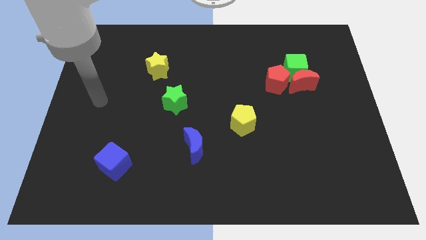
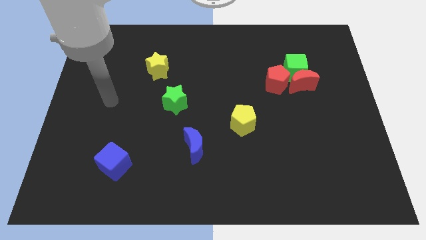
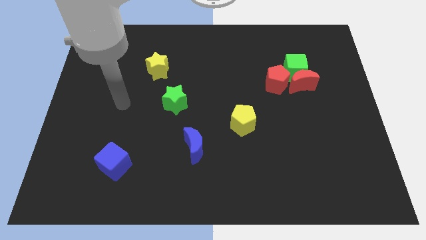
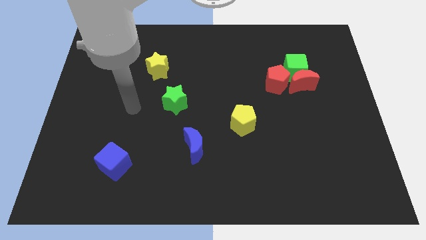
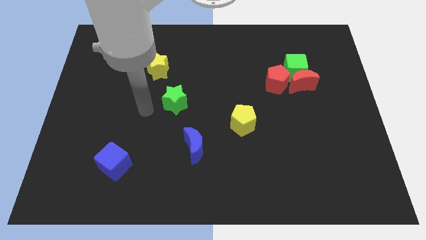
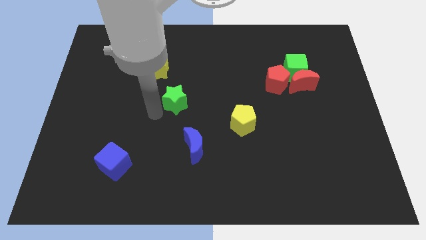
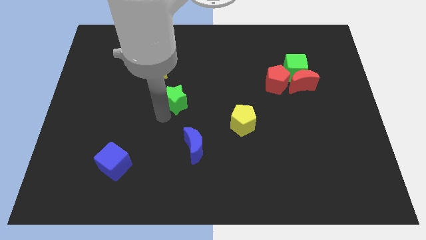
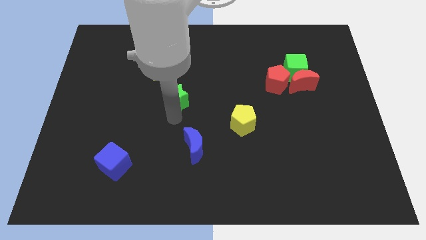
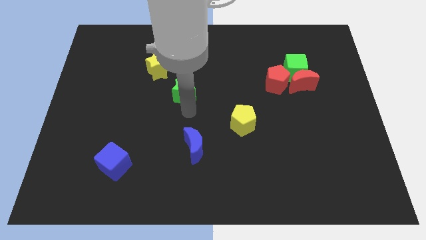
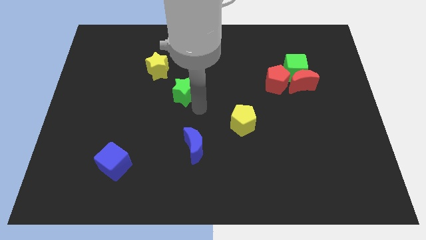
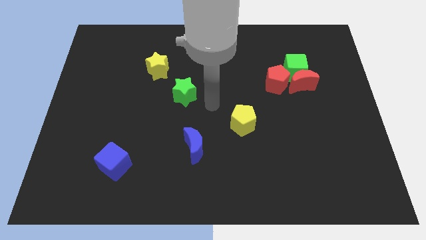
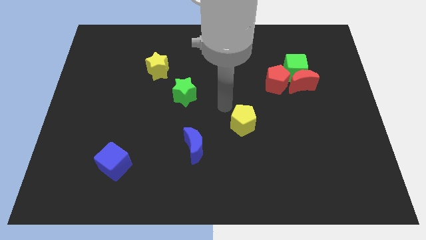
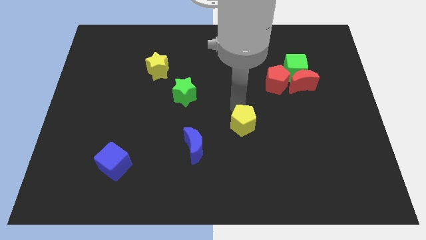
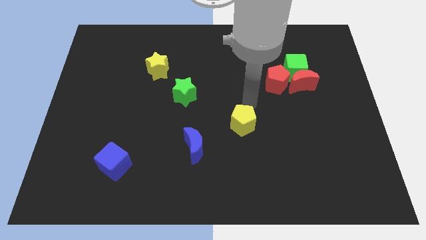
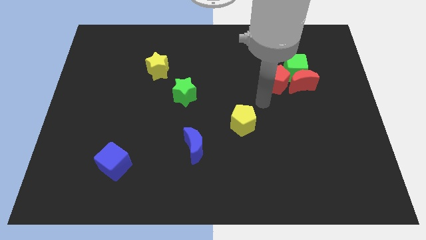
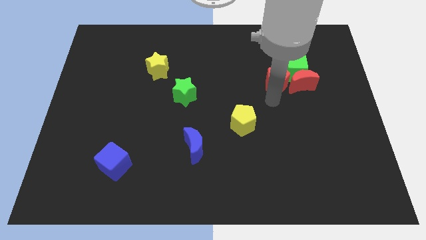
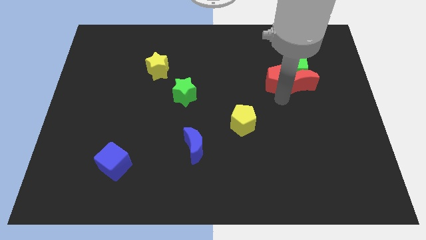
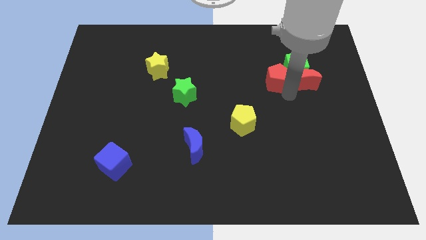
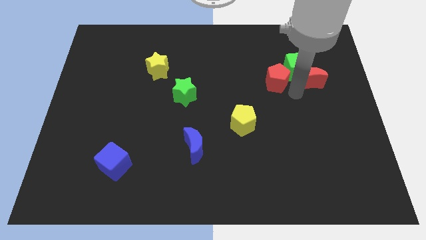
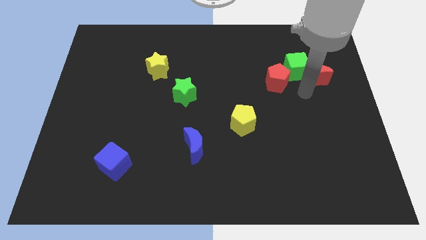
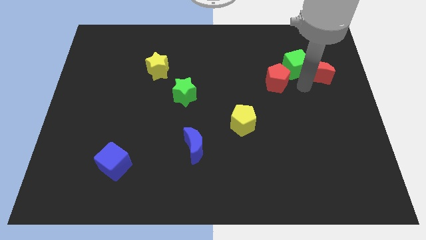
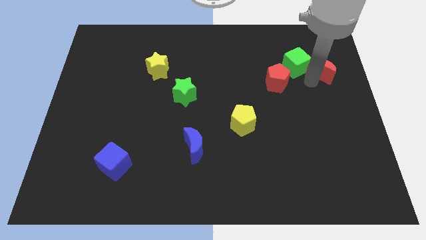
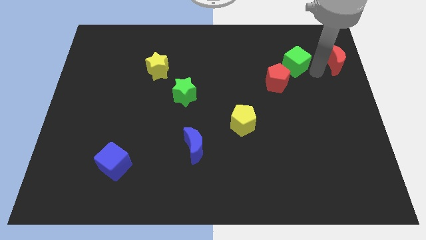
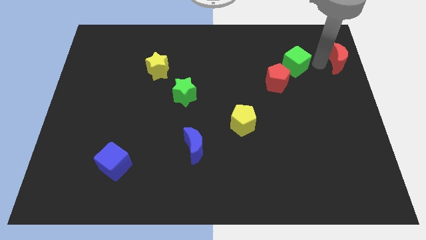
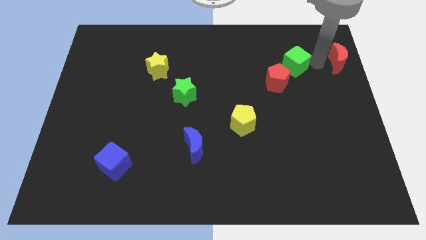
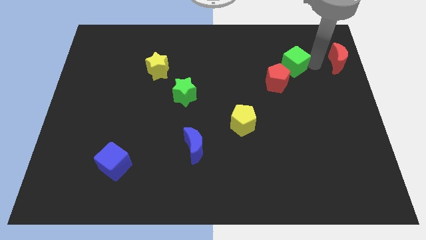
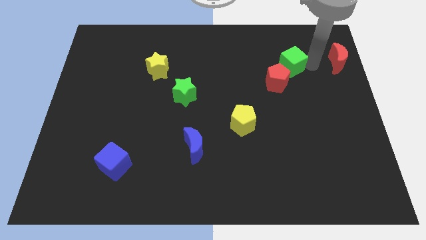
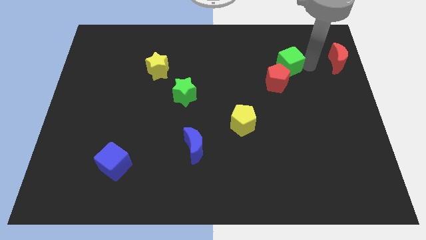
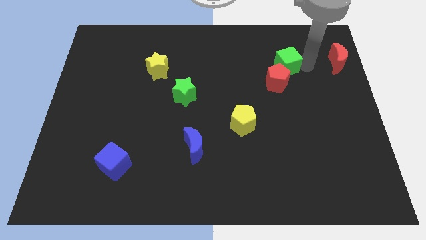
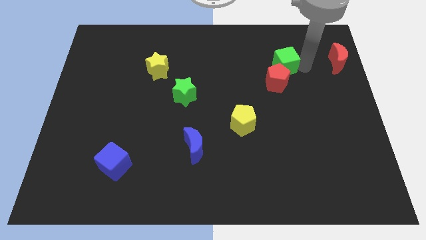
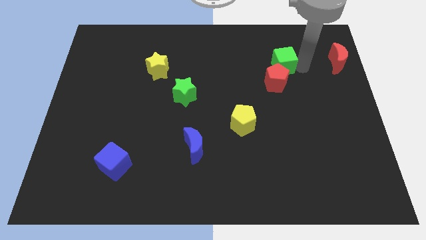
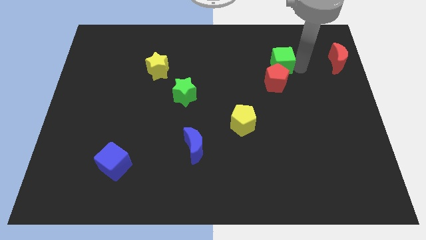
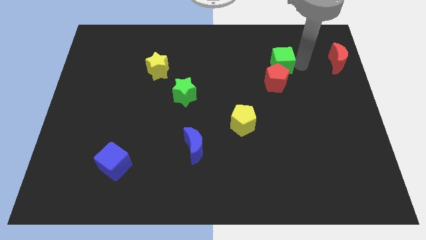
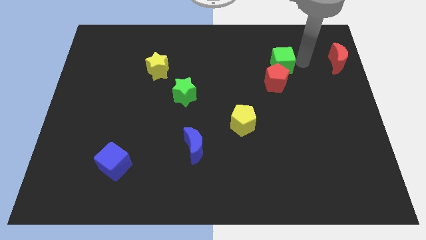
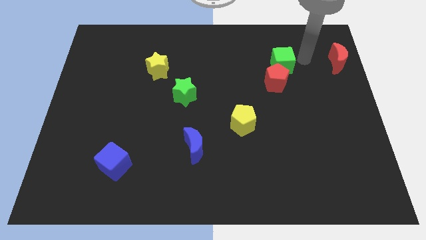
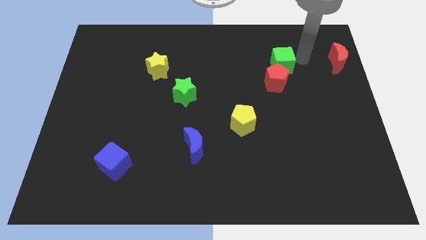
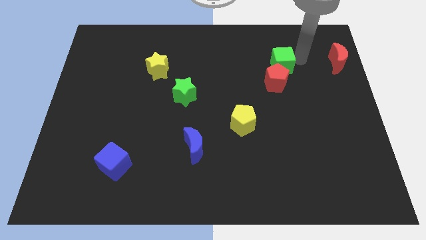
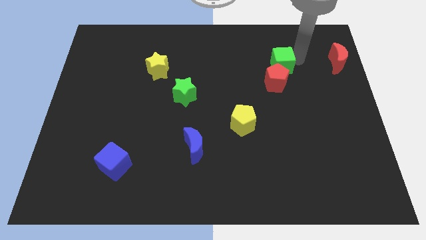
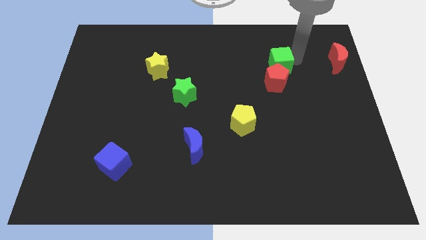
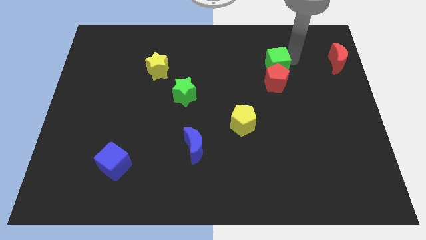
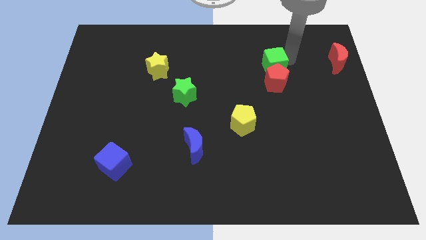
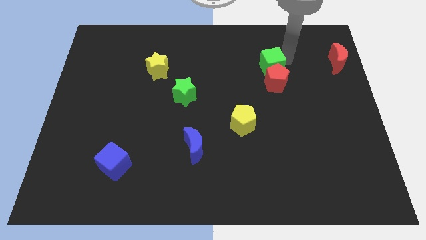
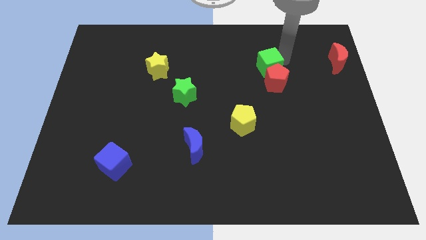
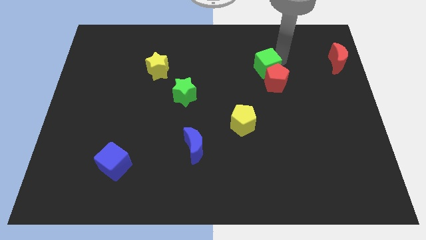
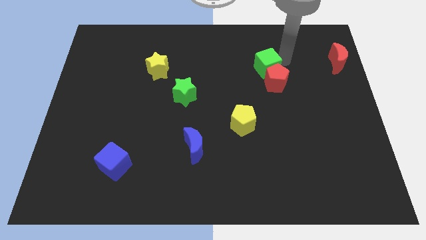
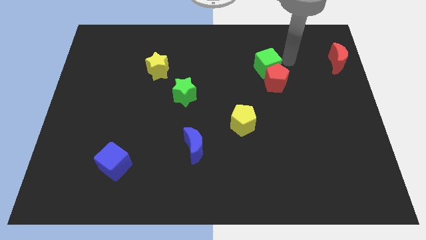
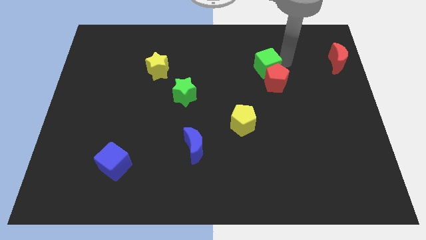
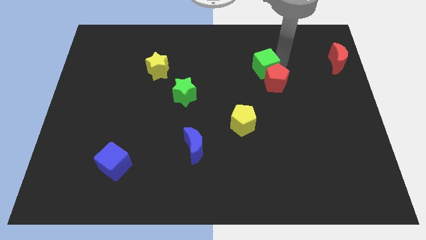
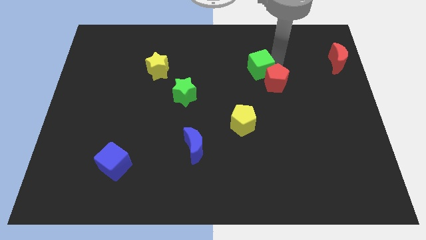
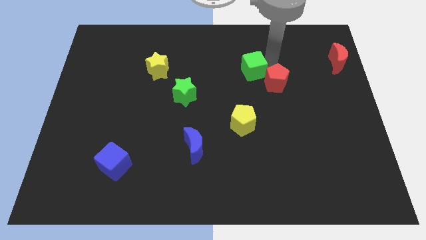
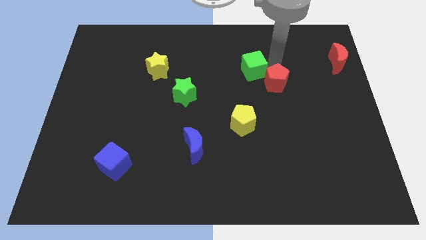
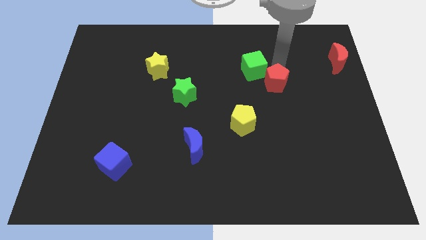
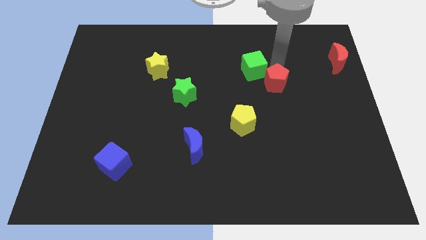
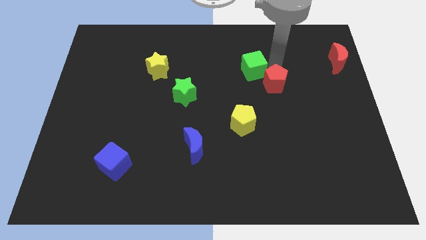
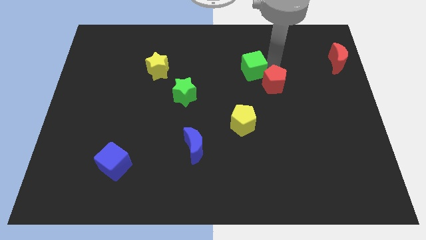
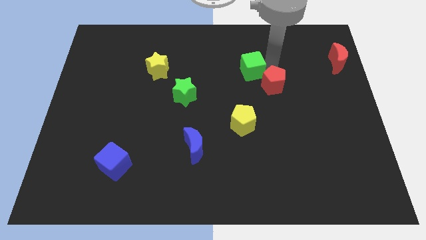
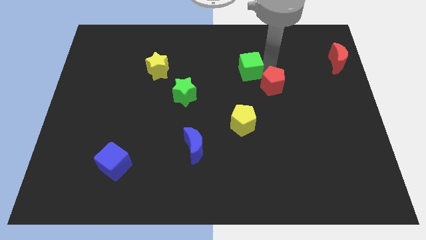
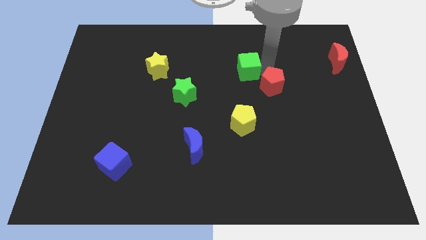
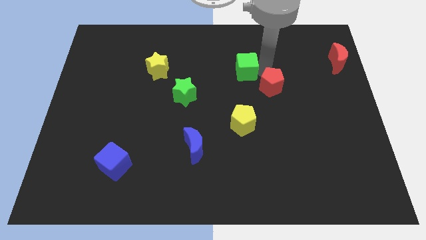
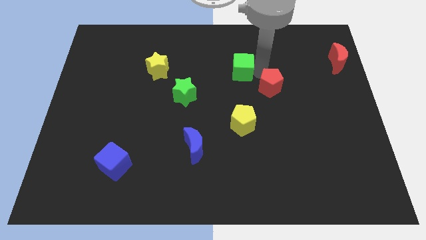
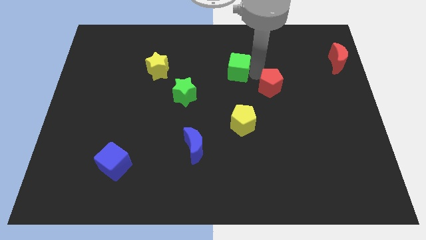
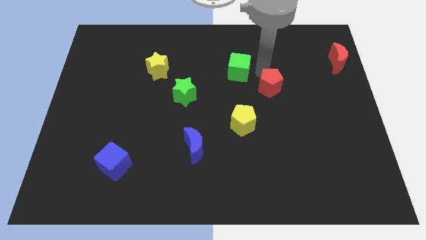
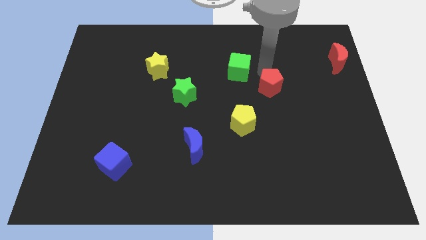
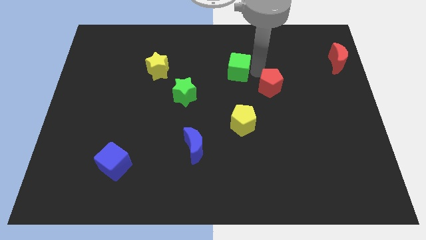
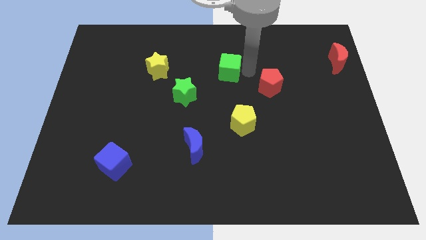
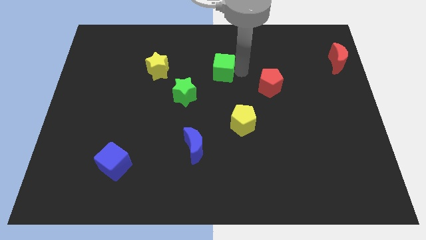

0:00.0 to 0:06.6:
slide the green cube to the right side of the yellow star

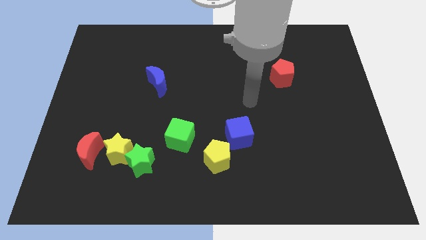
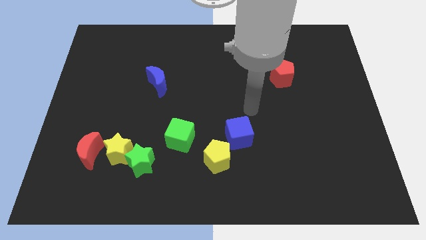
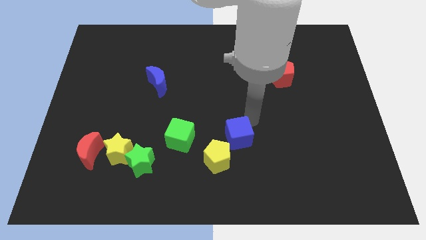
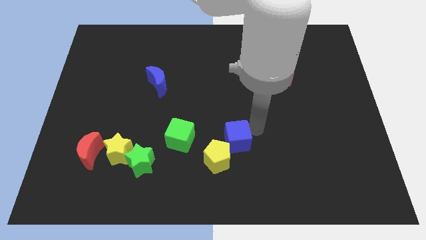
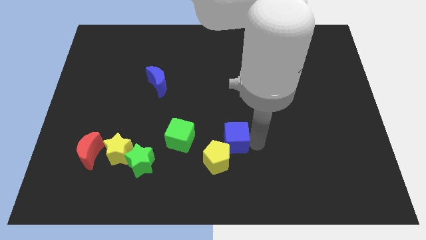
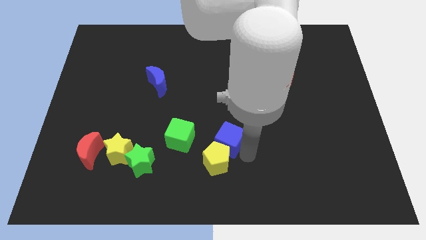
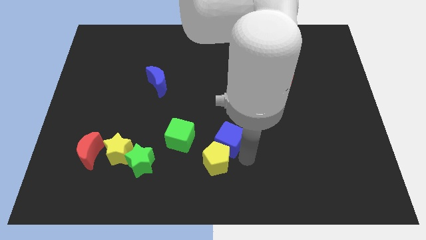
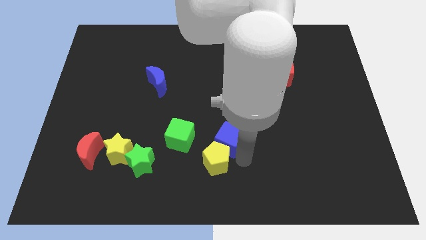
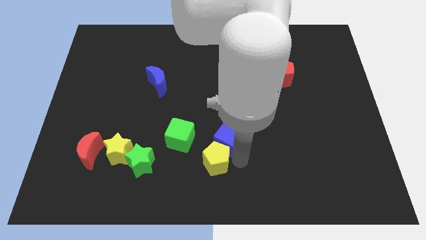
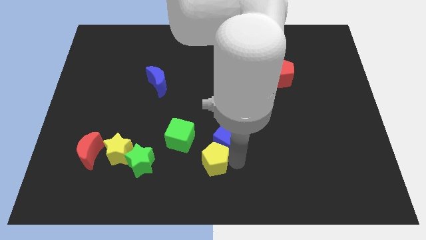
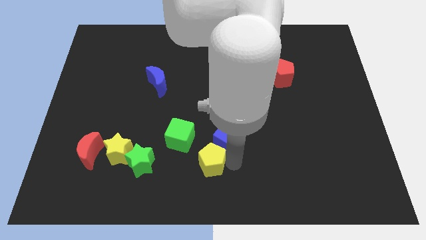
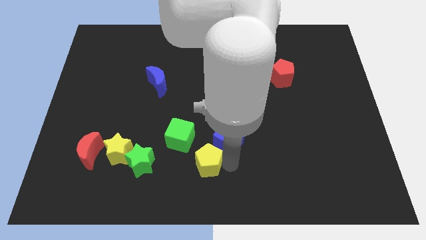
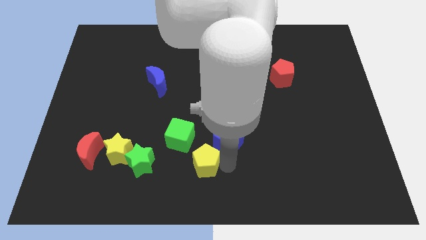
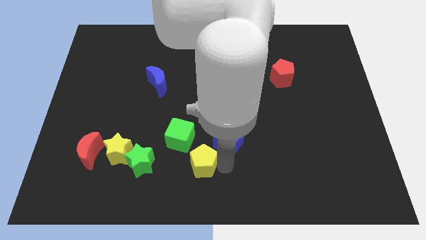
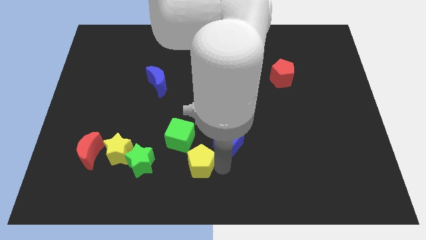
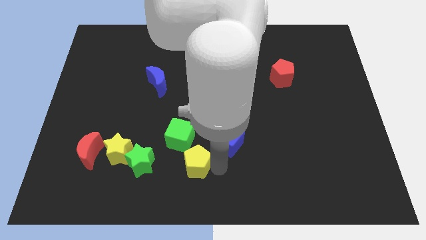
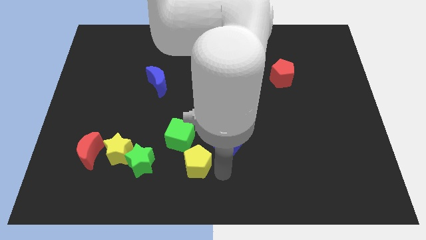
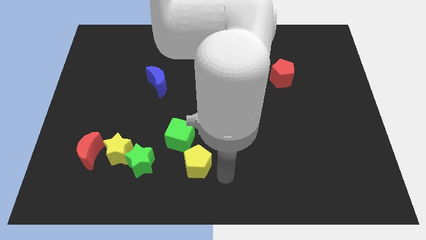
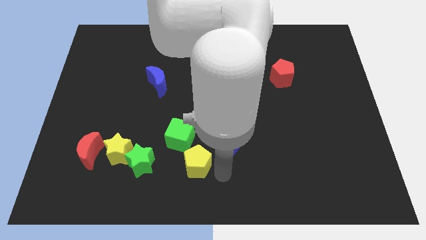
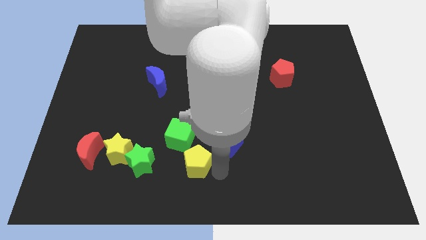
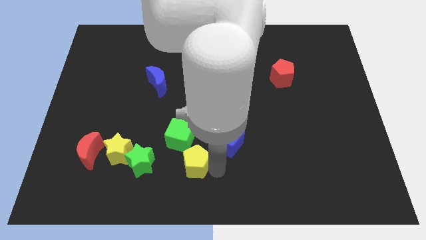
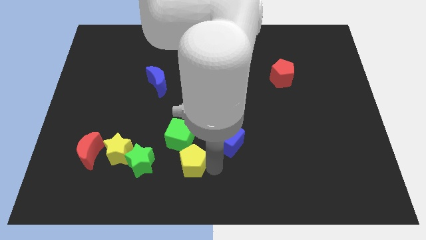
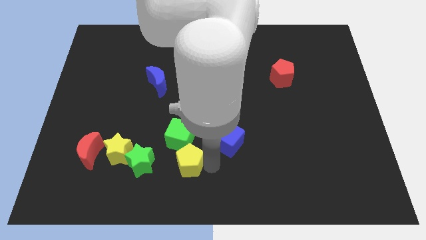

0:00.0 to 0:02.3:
push the yellow pentagon to the right side of the yellow star
